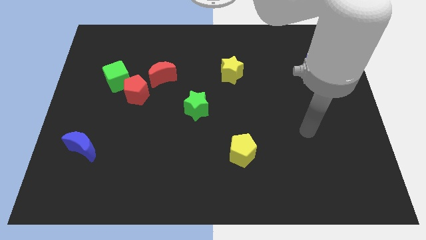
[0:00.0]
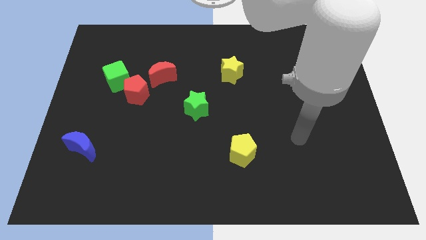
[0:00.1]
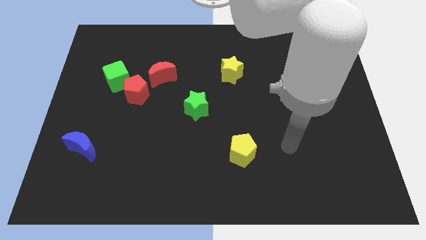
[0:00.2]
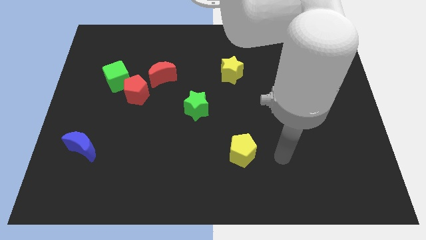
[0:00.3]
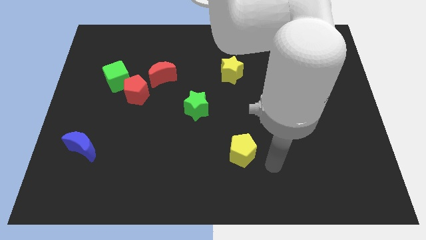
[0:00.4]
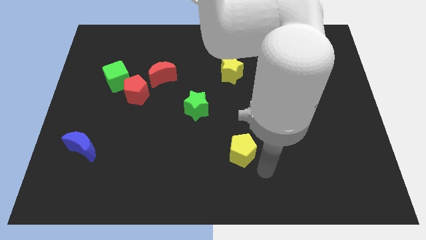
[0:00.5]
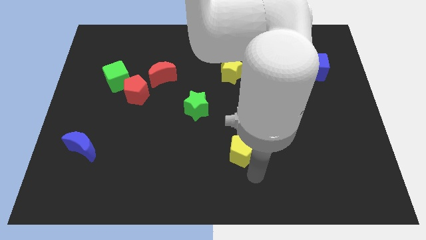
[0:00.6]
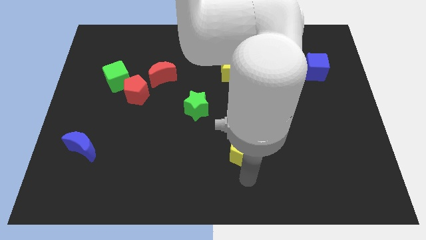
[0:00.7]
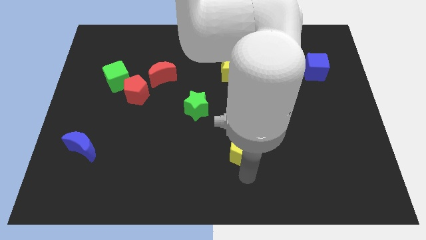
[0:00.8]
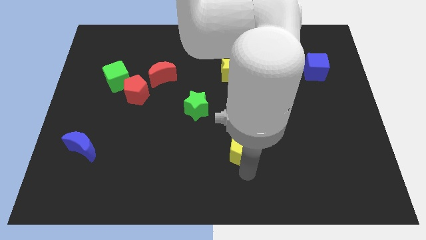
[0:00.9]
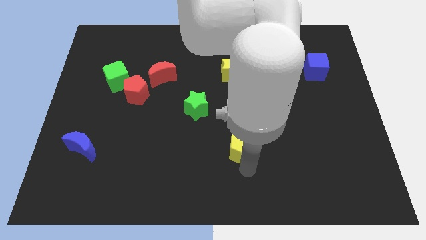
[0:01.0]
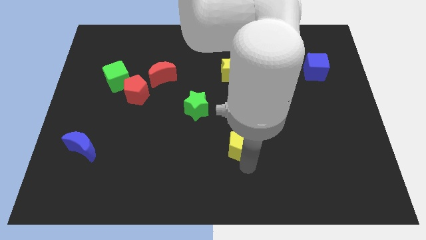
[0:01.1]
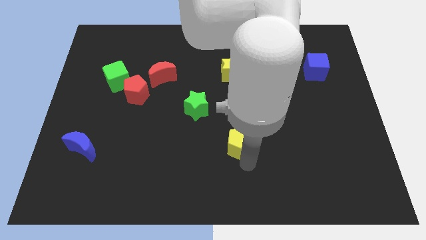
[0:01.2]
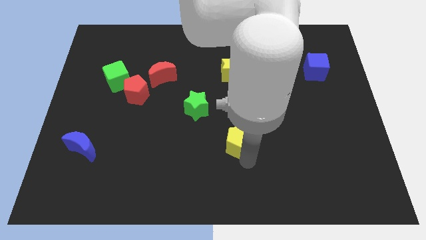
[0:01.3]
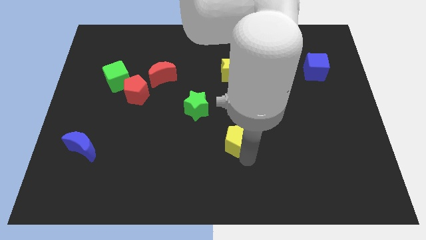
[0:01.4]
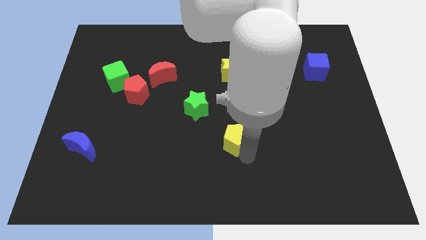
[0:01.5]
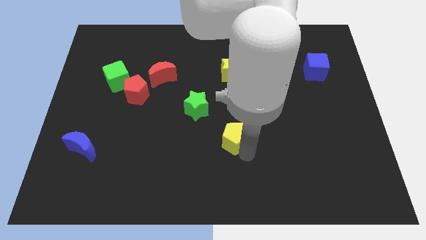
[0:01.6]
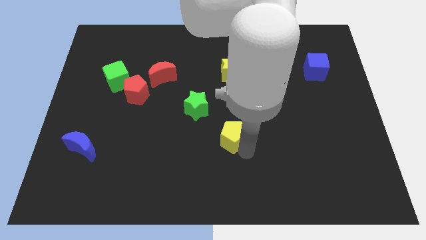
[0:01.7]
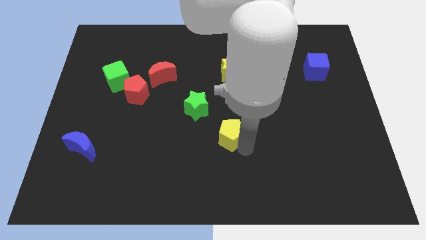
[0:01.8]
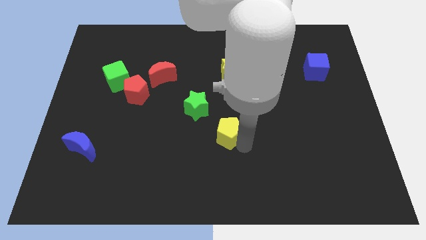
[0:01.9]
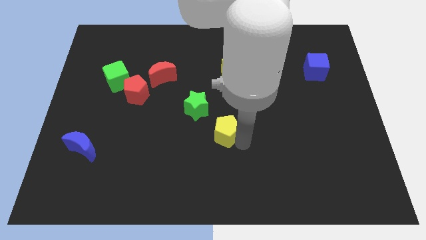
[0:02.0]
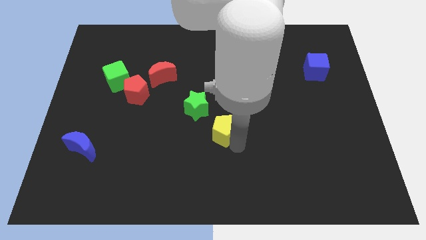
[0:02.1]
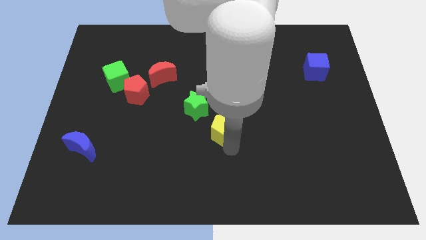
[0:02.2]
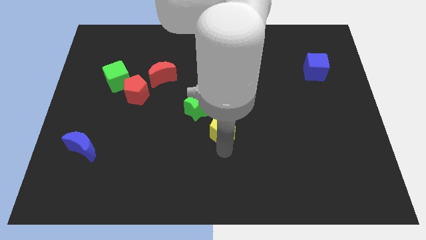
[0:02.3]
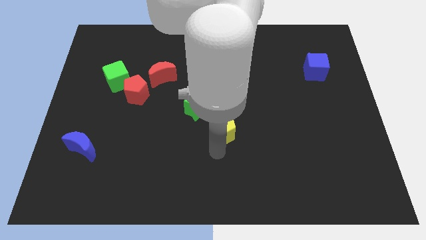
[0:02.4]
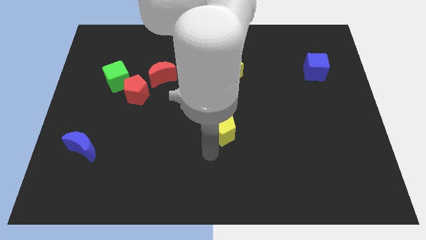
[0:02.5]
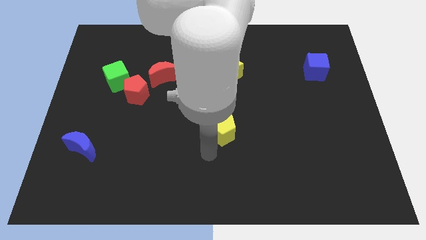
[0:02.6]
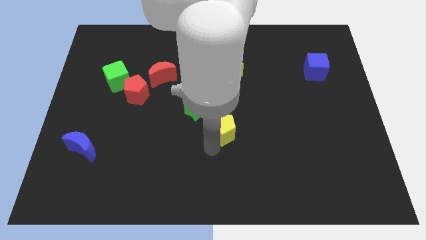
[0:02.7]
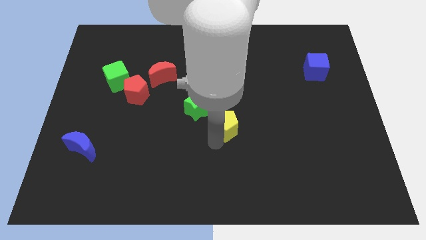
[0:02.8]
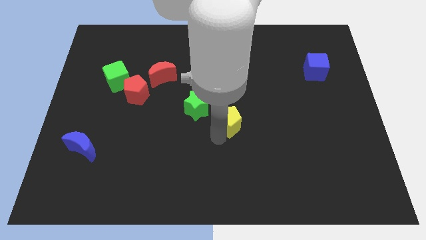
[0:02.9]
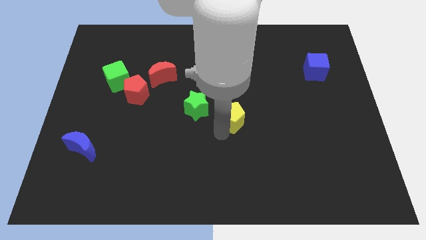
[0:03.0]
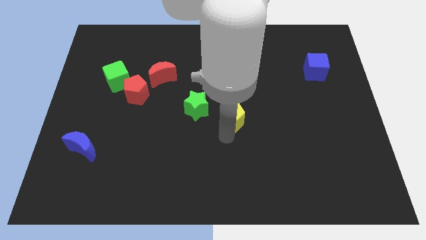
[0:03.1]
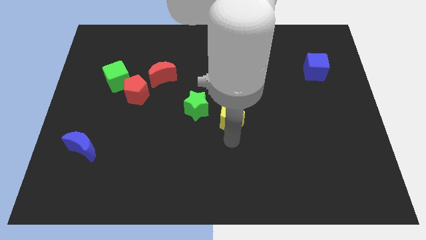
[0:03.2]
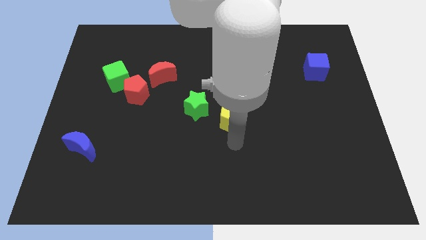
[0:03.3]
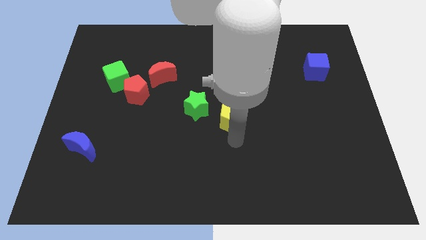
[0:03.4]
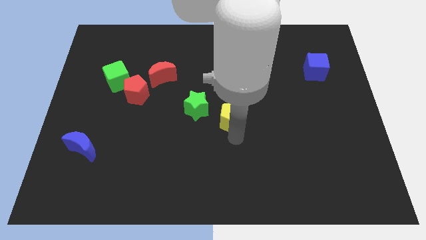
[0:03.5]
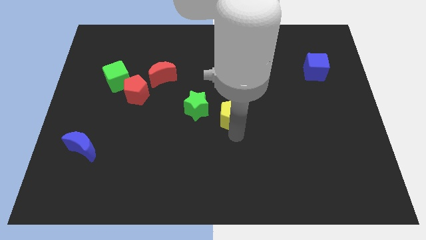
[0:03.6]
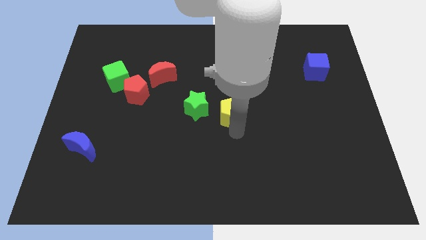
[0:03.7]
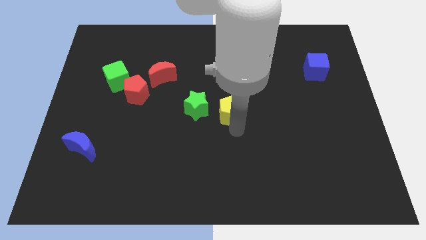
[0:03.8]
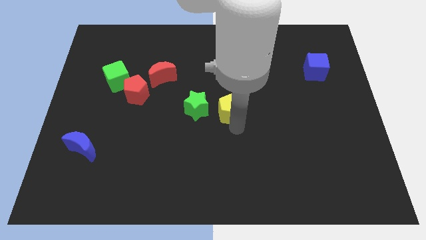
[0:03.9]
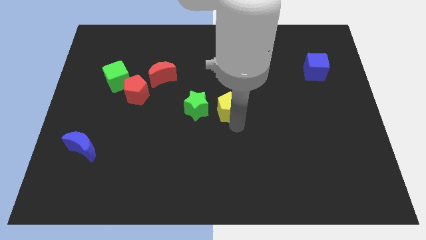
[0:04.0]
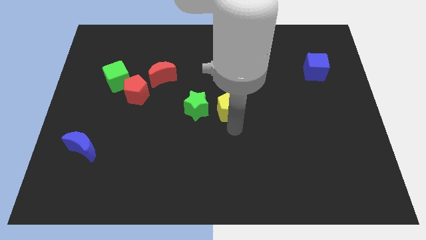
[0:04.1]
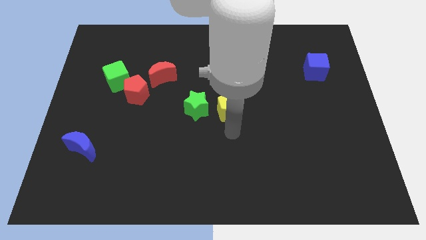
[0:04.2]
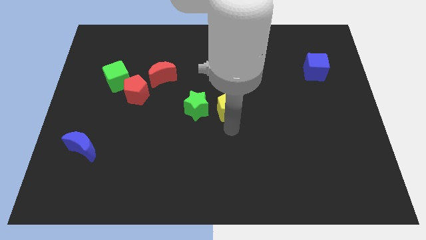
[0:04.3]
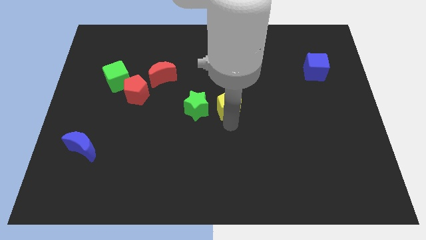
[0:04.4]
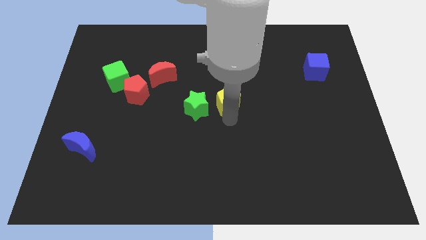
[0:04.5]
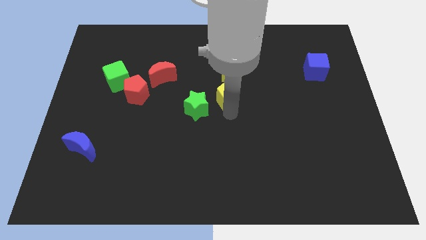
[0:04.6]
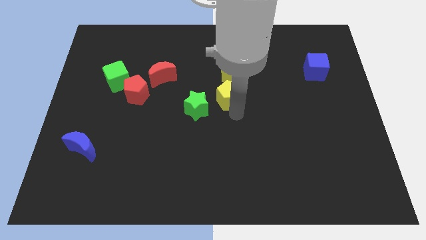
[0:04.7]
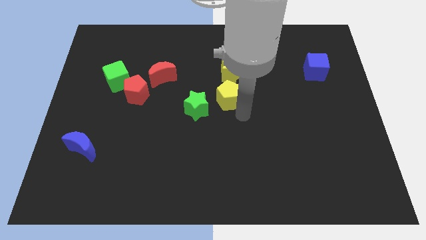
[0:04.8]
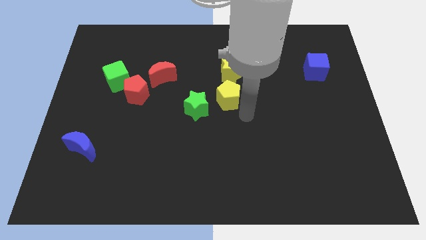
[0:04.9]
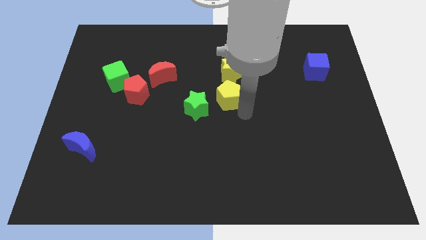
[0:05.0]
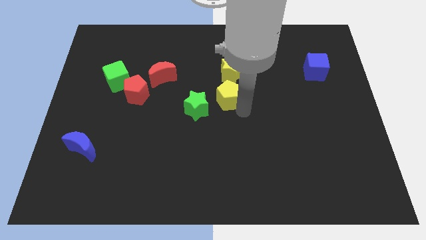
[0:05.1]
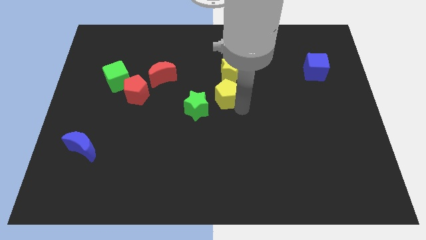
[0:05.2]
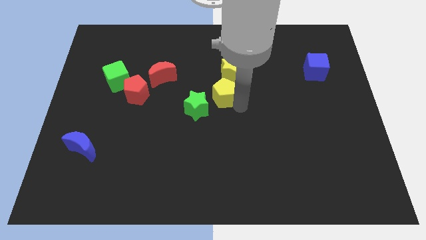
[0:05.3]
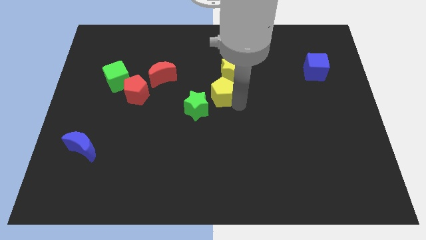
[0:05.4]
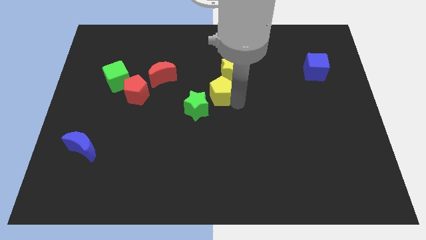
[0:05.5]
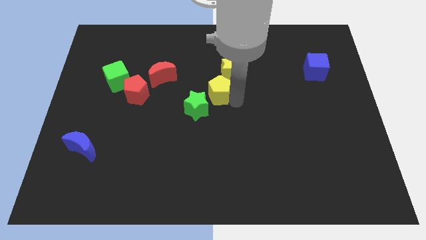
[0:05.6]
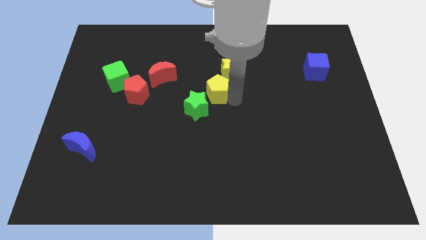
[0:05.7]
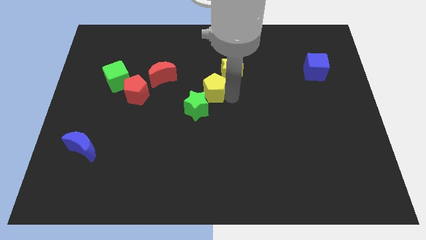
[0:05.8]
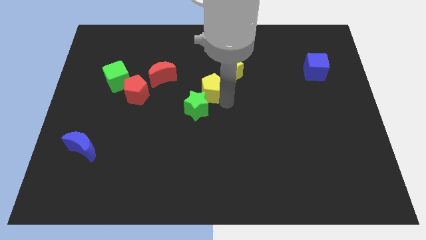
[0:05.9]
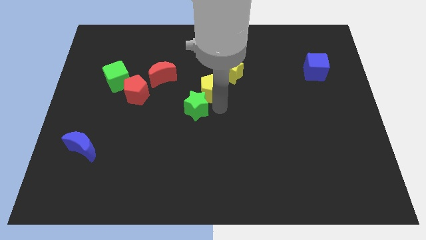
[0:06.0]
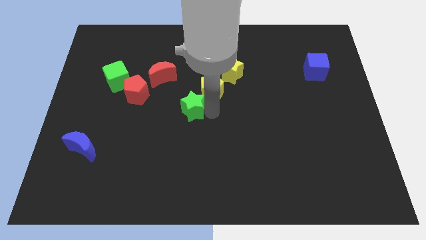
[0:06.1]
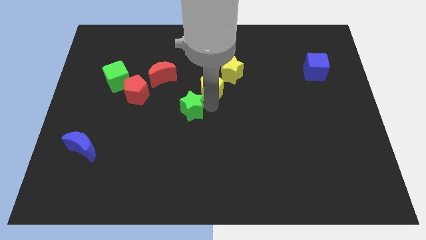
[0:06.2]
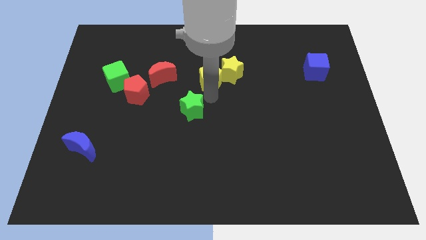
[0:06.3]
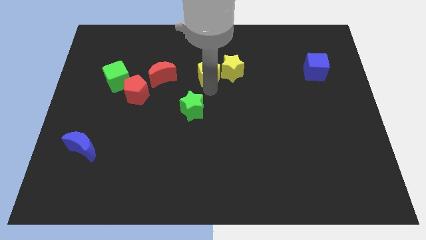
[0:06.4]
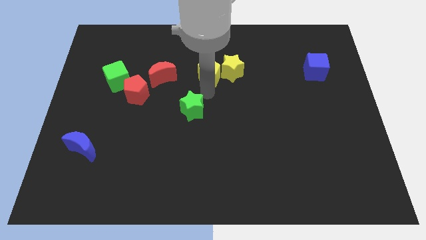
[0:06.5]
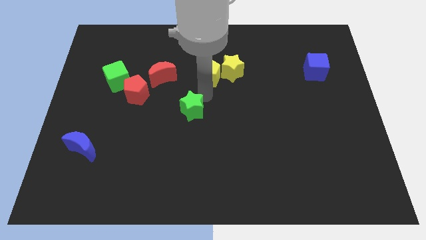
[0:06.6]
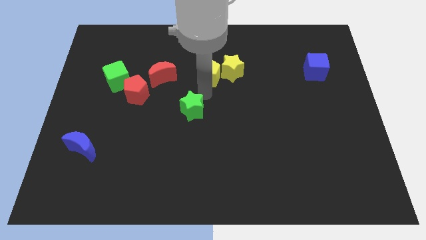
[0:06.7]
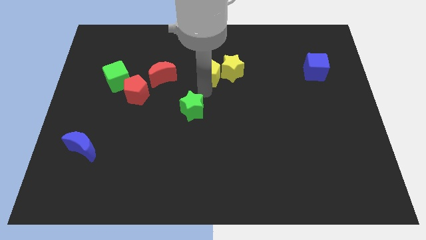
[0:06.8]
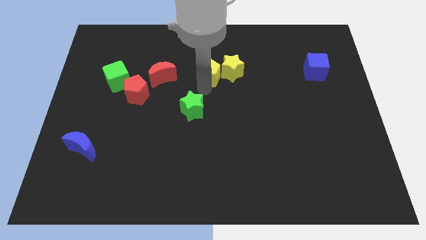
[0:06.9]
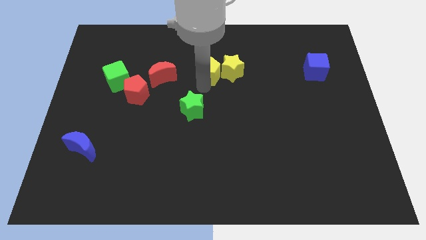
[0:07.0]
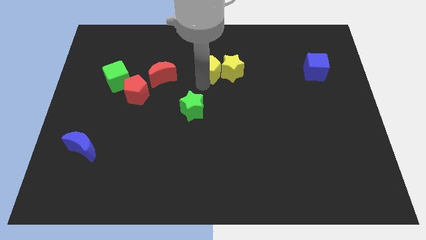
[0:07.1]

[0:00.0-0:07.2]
push the yellow pentagon to the top left of the yellow star
